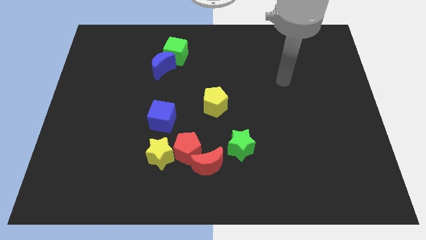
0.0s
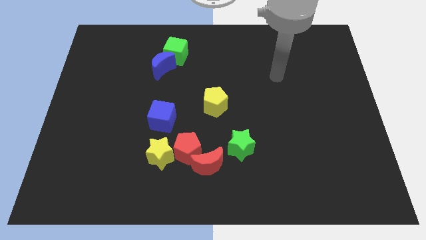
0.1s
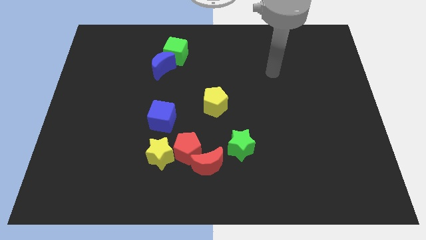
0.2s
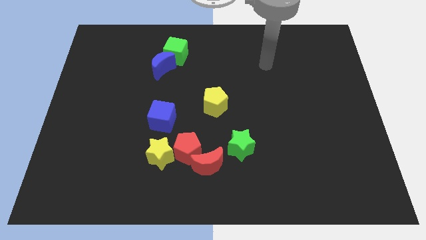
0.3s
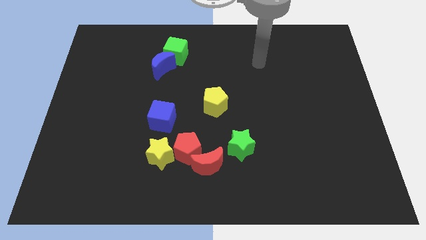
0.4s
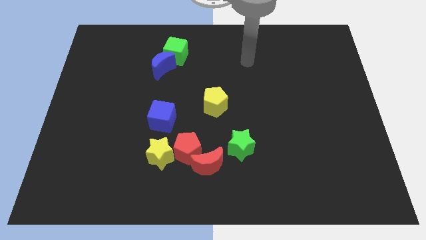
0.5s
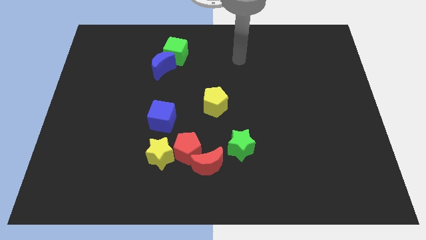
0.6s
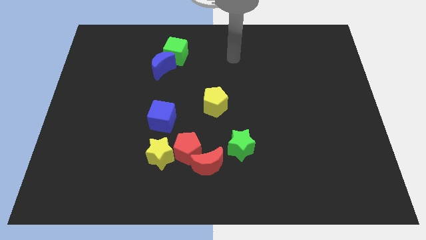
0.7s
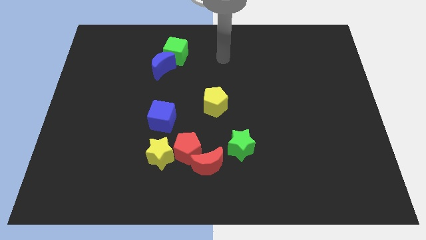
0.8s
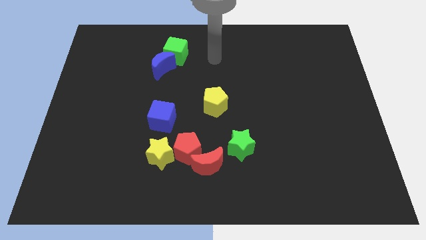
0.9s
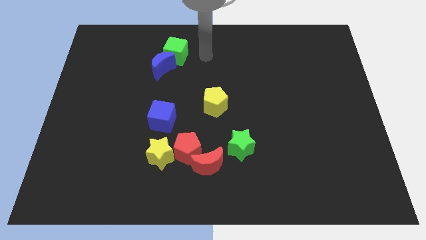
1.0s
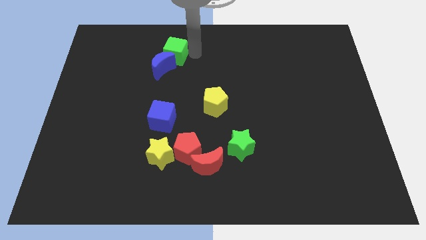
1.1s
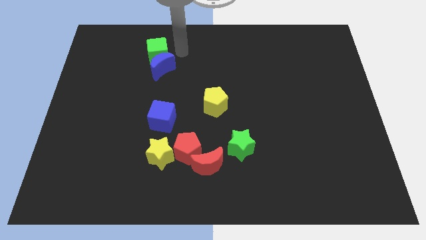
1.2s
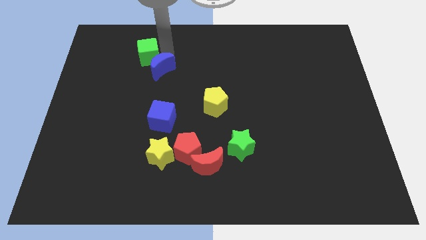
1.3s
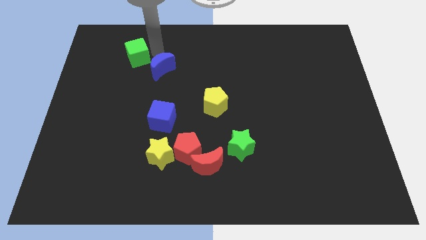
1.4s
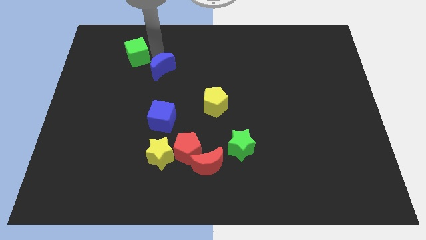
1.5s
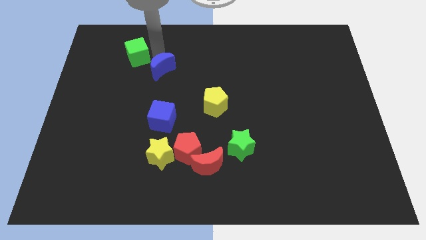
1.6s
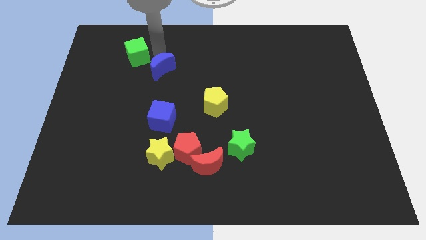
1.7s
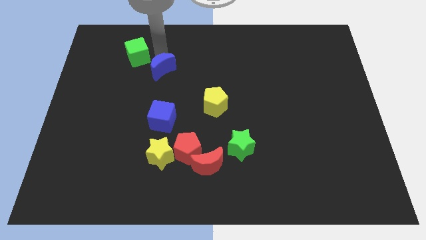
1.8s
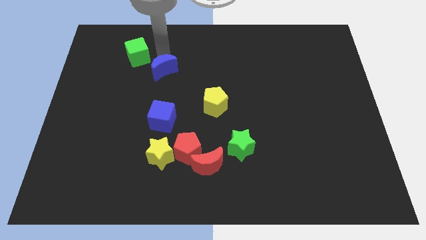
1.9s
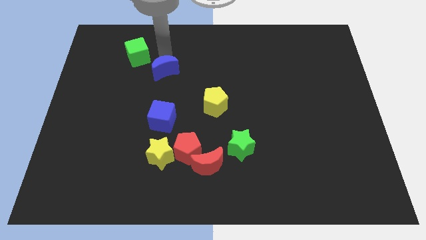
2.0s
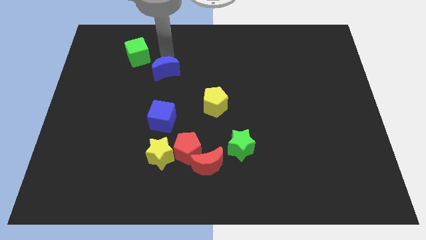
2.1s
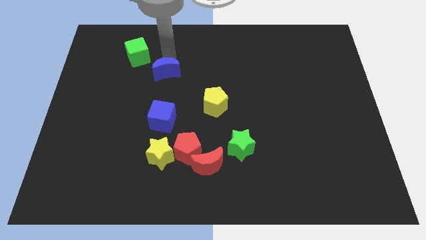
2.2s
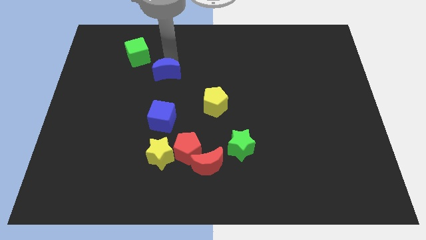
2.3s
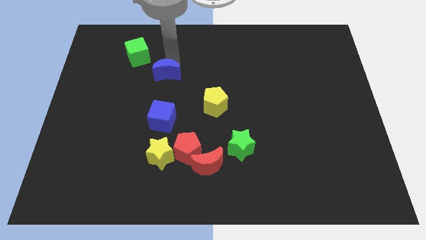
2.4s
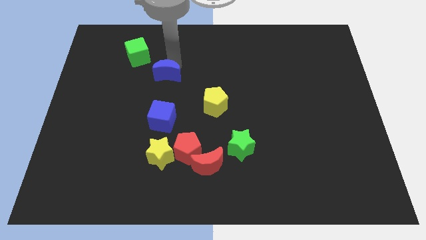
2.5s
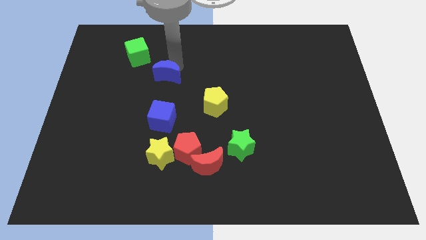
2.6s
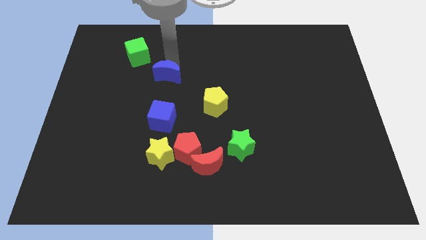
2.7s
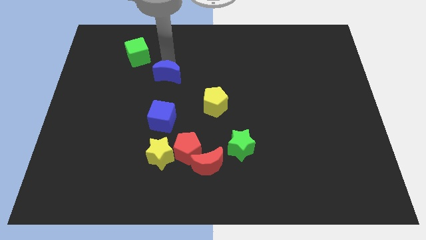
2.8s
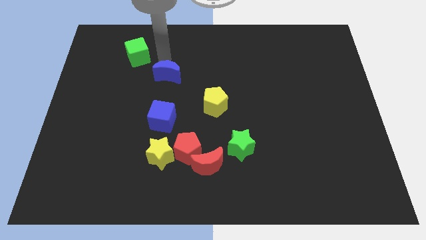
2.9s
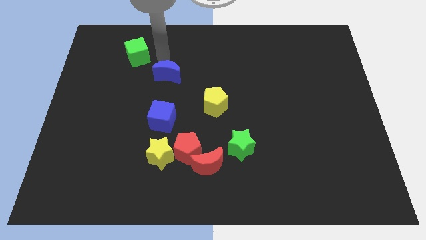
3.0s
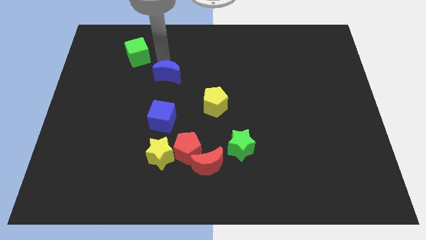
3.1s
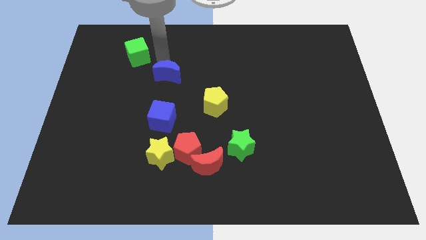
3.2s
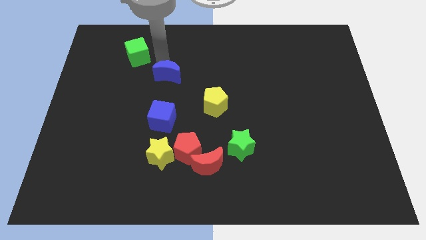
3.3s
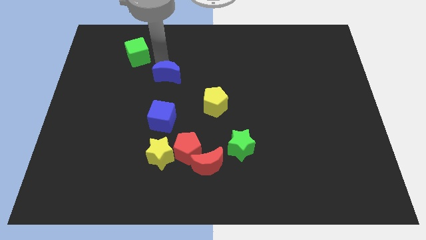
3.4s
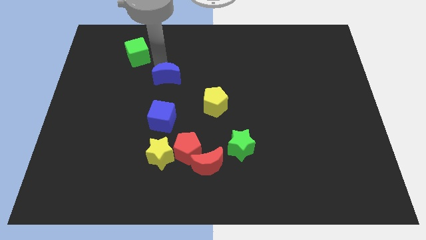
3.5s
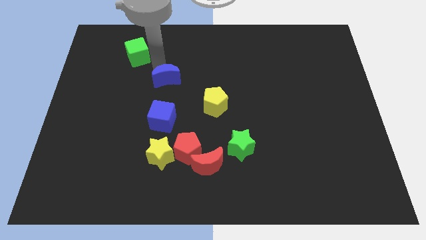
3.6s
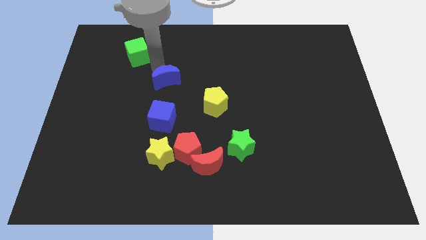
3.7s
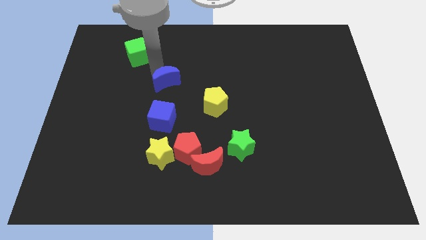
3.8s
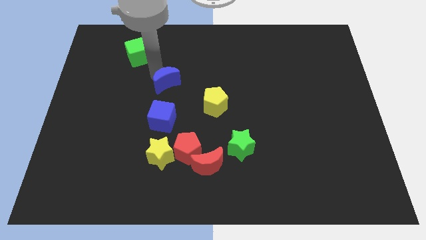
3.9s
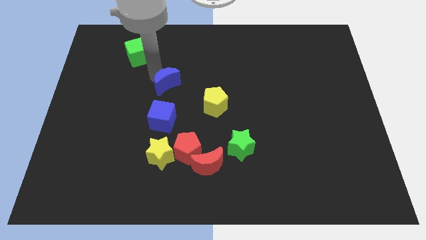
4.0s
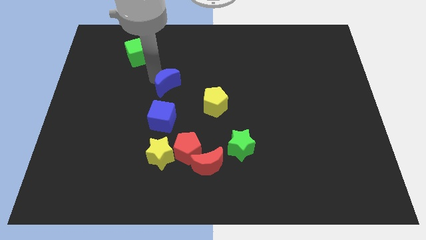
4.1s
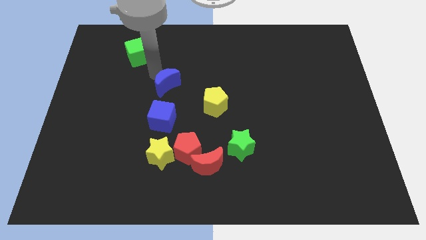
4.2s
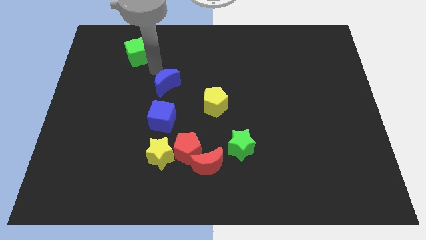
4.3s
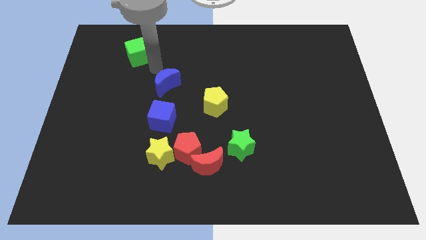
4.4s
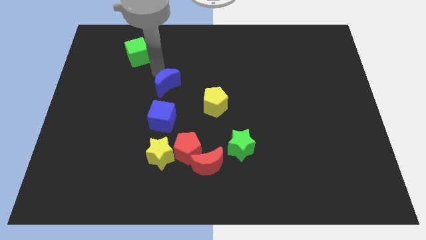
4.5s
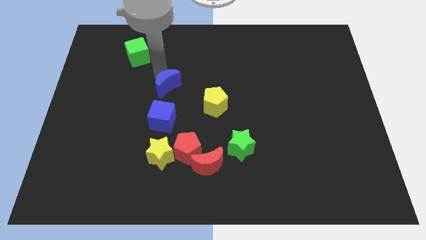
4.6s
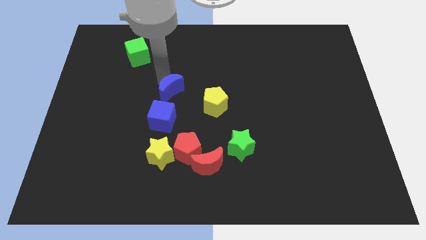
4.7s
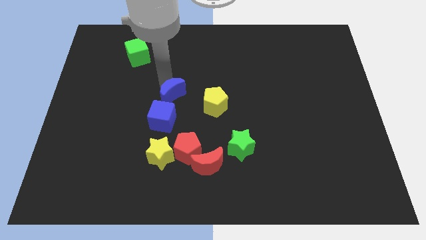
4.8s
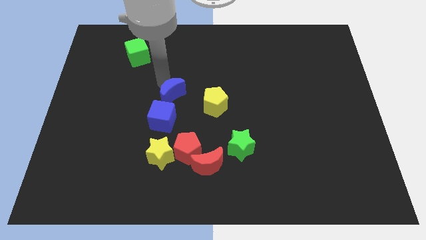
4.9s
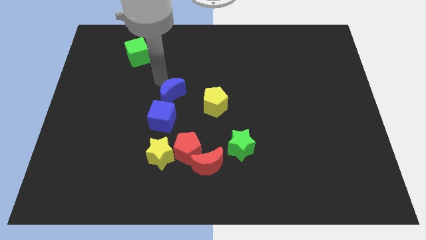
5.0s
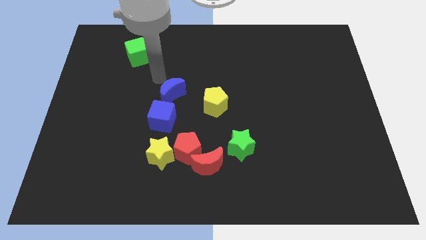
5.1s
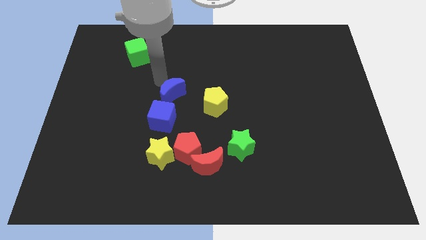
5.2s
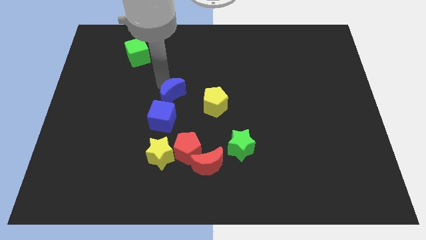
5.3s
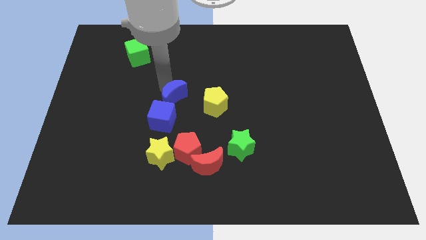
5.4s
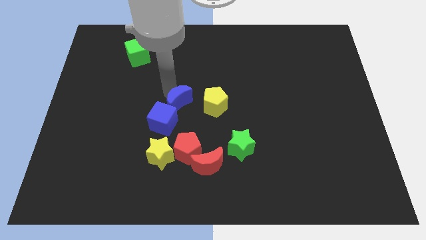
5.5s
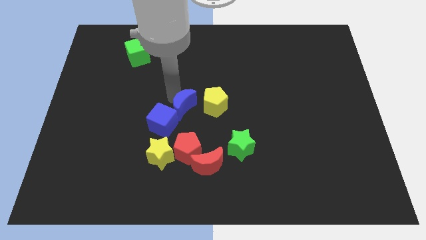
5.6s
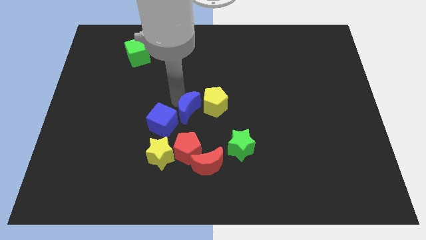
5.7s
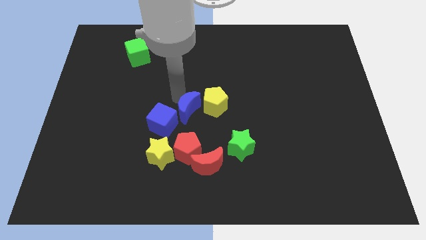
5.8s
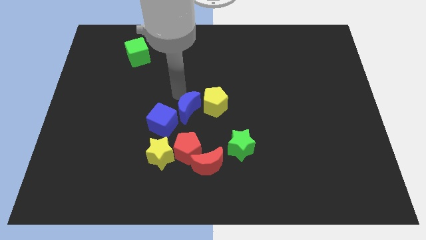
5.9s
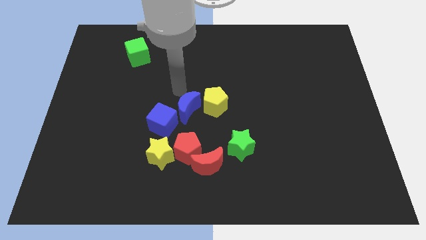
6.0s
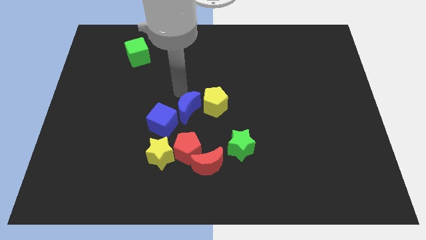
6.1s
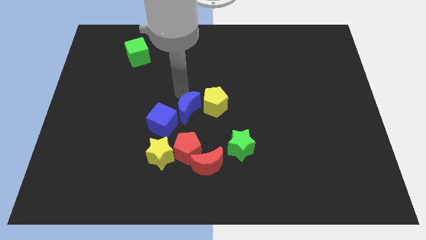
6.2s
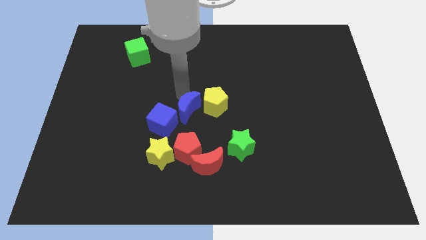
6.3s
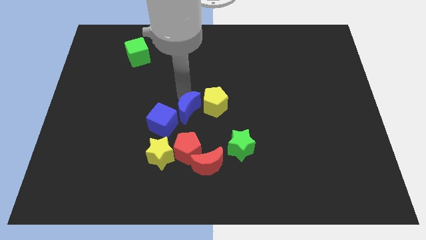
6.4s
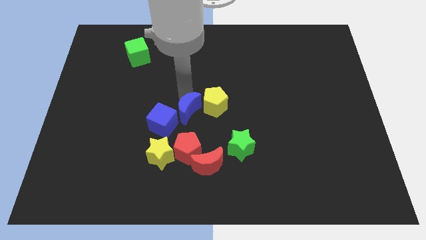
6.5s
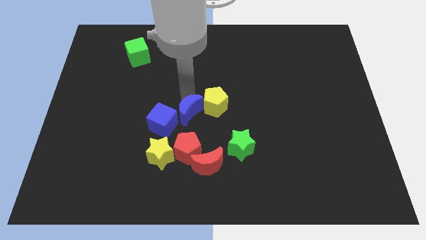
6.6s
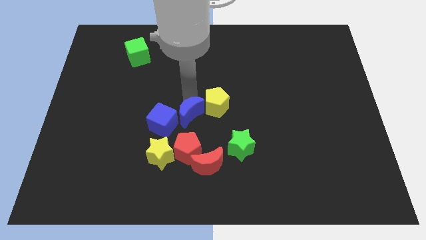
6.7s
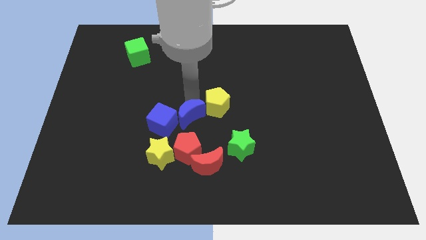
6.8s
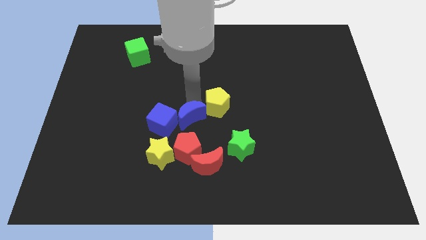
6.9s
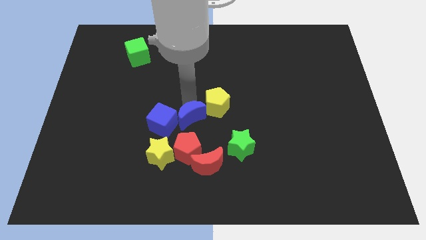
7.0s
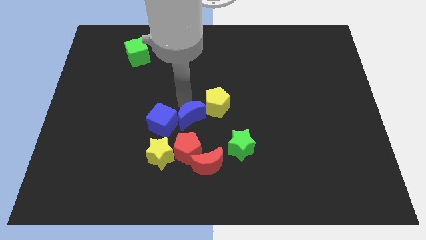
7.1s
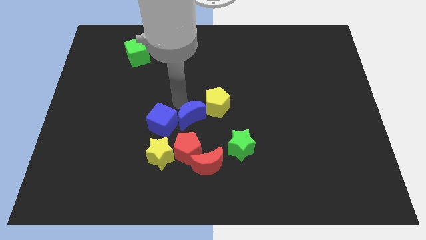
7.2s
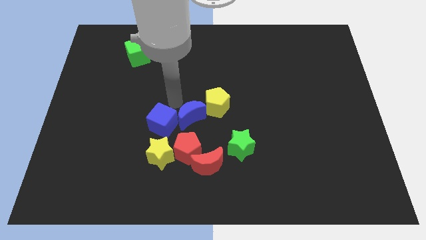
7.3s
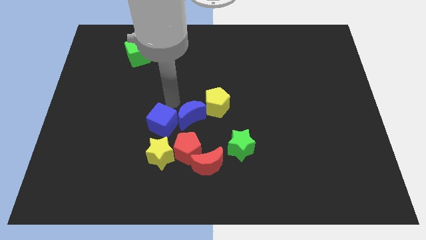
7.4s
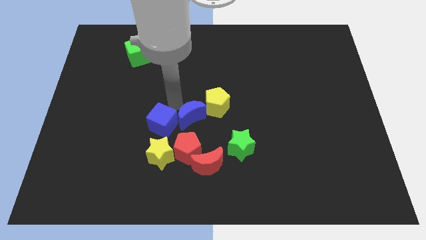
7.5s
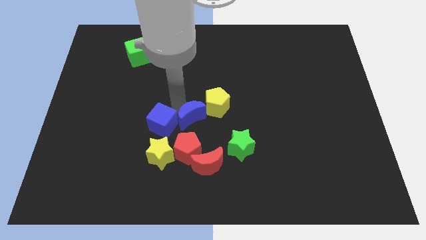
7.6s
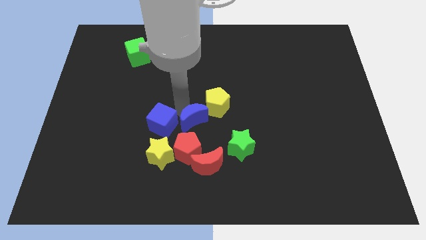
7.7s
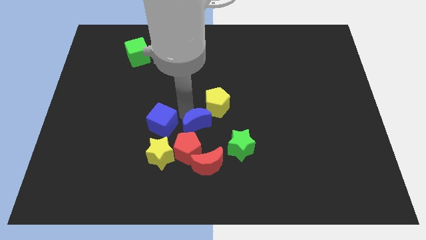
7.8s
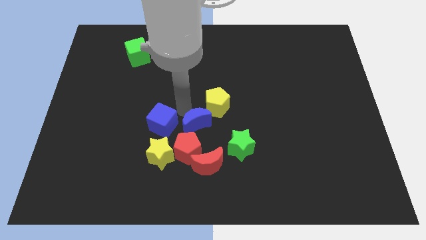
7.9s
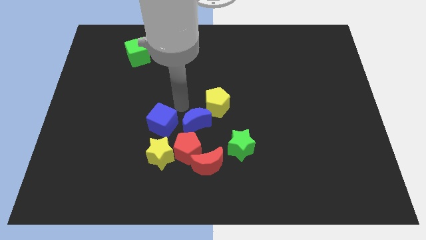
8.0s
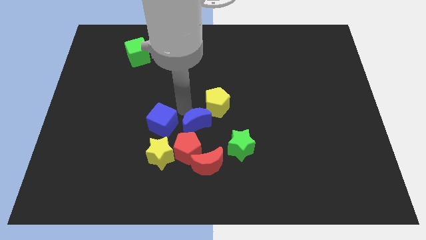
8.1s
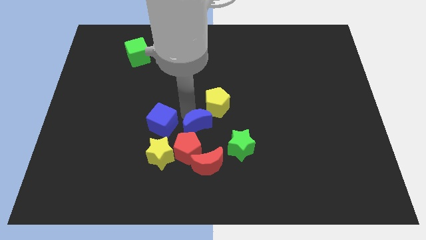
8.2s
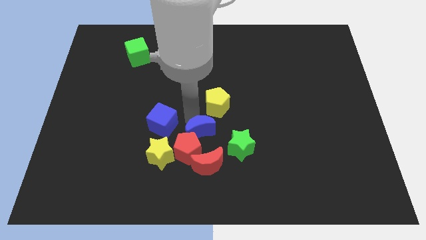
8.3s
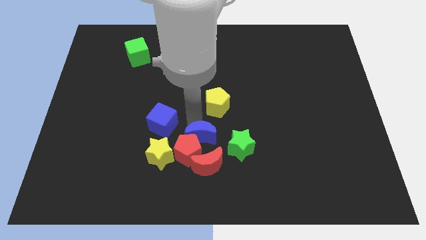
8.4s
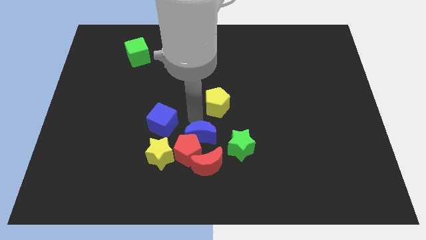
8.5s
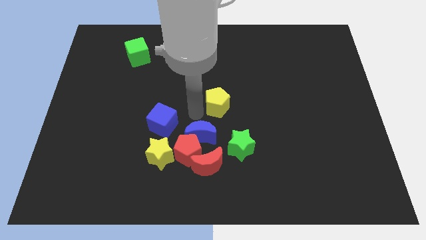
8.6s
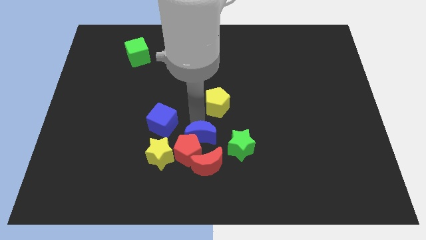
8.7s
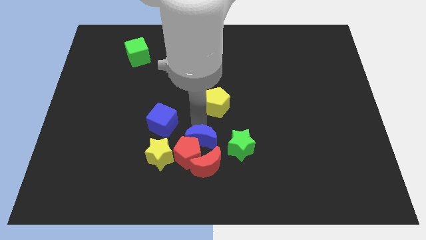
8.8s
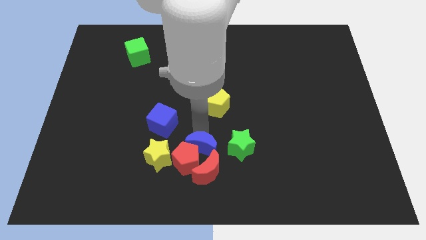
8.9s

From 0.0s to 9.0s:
push the blue moon towards the red moon
